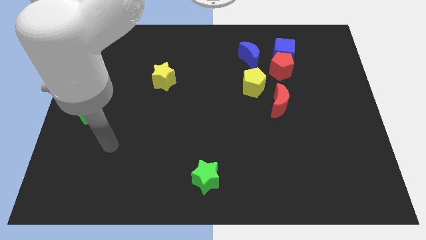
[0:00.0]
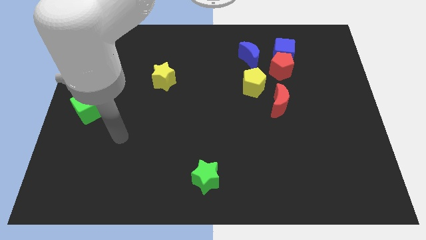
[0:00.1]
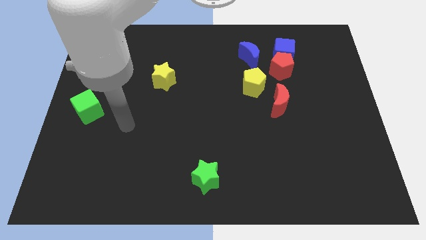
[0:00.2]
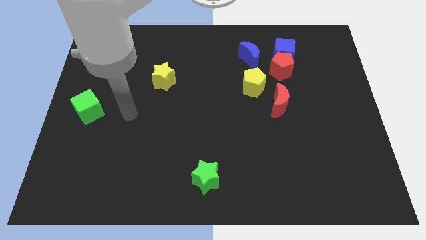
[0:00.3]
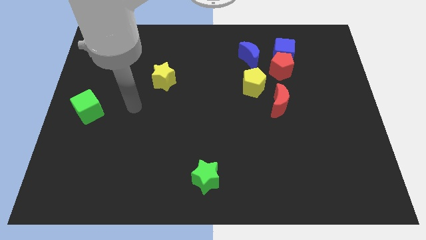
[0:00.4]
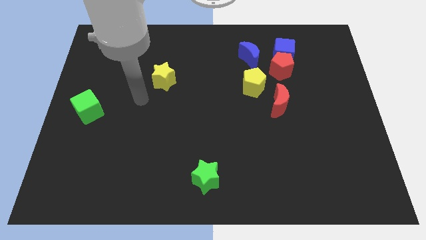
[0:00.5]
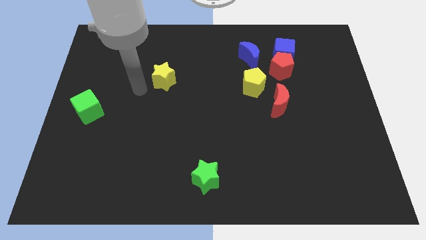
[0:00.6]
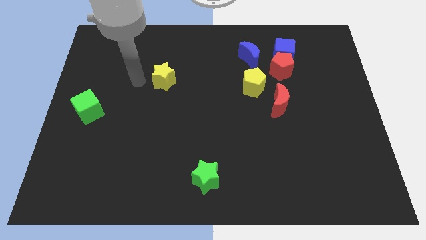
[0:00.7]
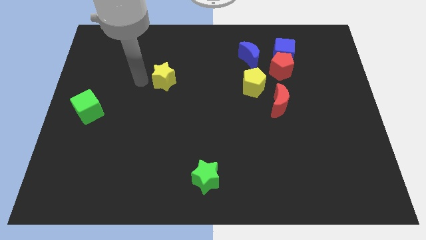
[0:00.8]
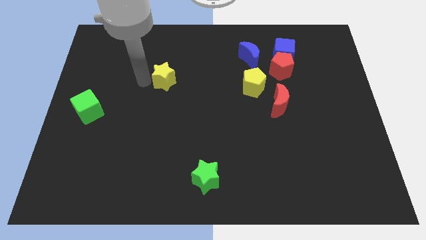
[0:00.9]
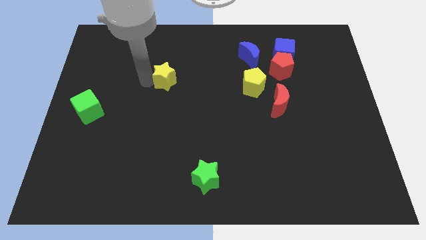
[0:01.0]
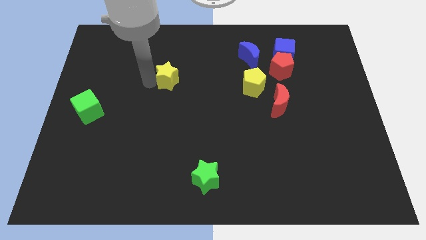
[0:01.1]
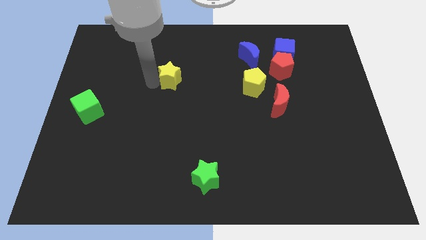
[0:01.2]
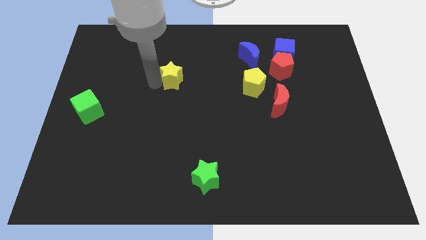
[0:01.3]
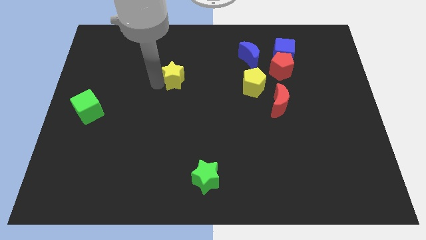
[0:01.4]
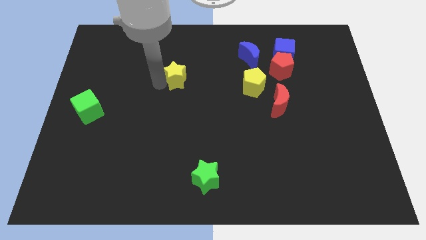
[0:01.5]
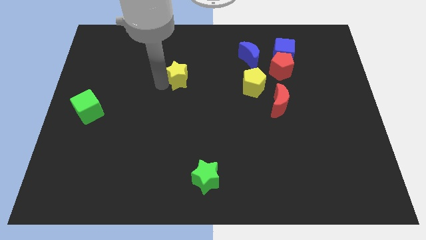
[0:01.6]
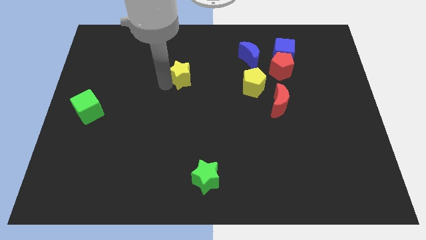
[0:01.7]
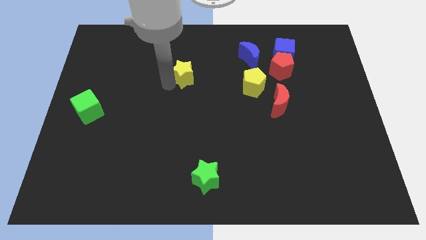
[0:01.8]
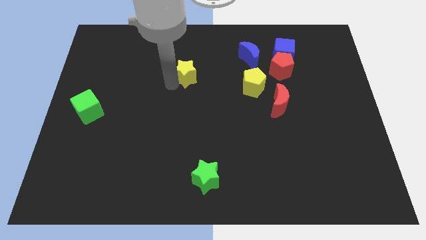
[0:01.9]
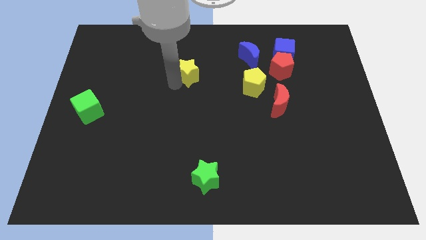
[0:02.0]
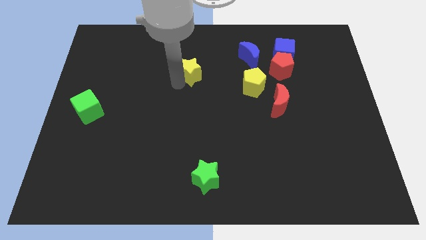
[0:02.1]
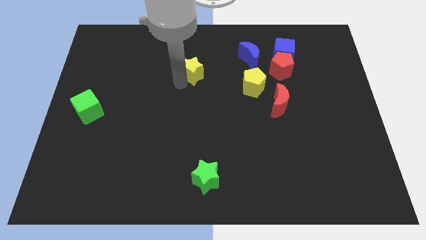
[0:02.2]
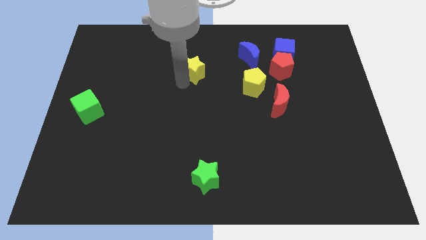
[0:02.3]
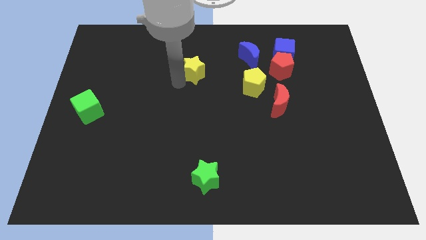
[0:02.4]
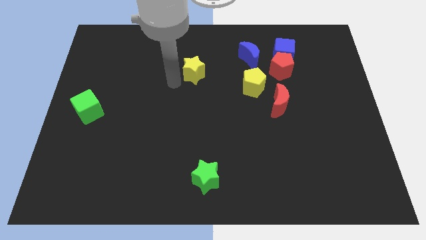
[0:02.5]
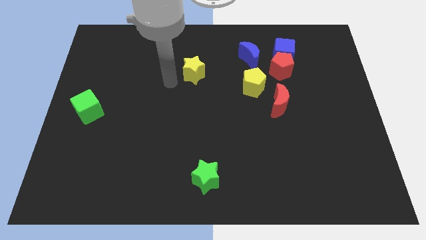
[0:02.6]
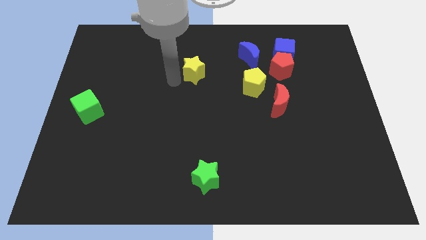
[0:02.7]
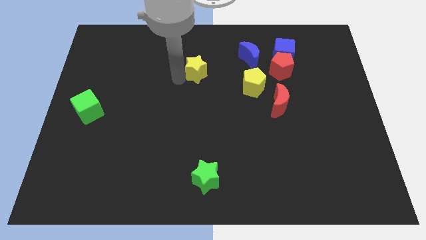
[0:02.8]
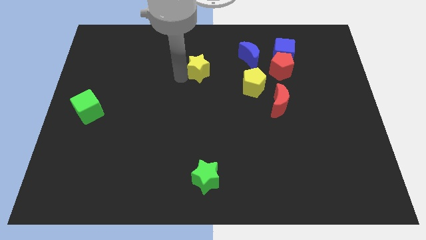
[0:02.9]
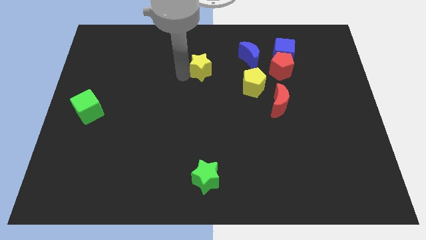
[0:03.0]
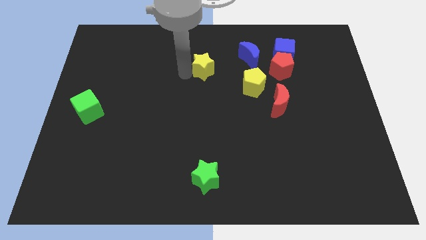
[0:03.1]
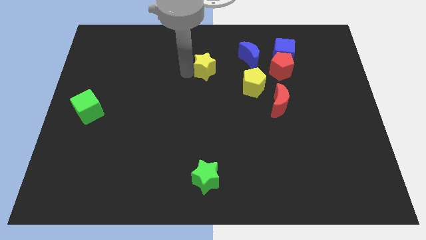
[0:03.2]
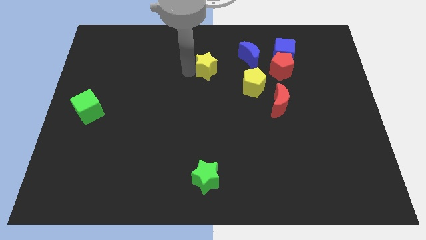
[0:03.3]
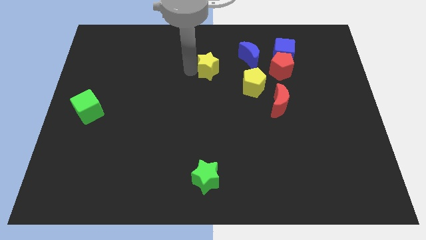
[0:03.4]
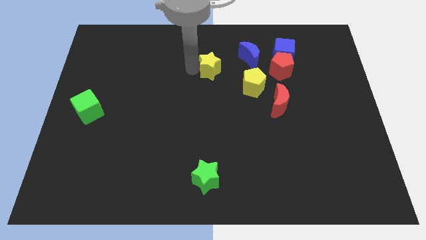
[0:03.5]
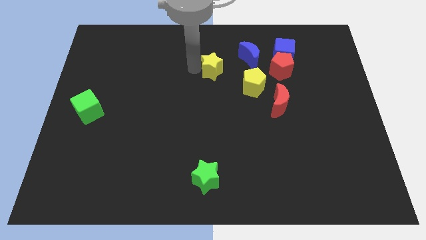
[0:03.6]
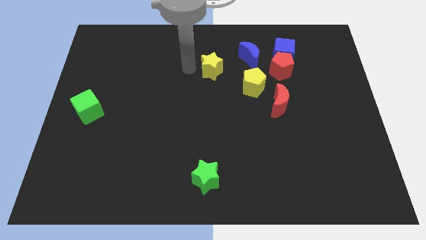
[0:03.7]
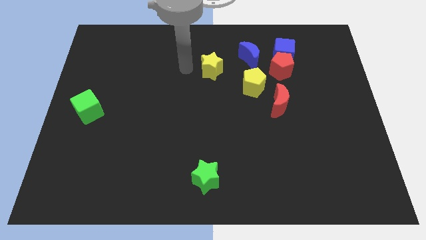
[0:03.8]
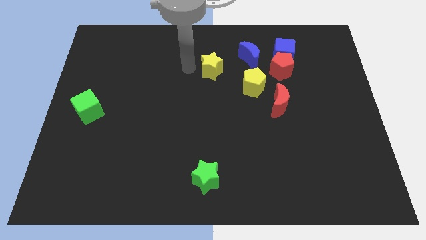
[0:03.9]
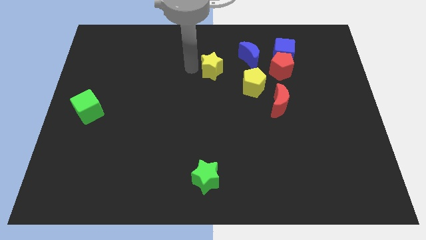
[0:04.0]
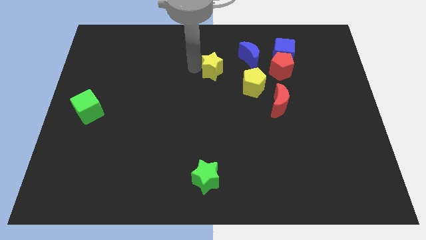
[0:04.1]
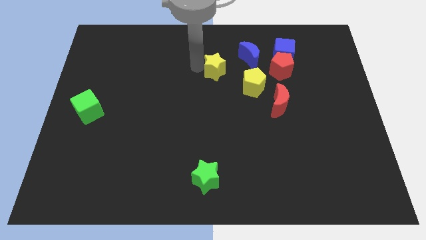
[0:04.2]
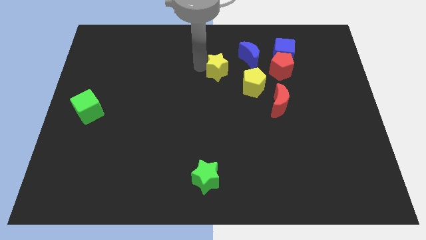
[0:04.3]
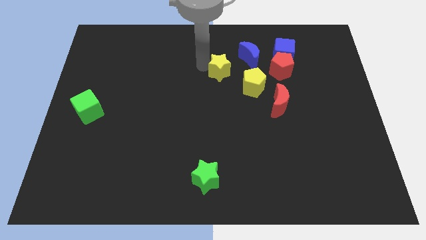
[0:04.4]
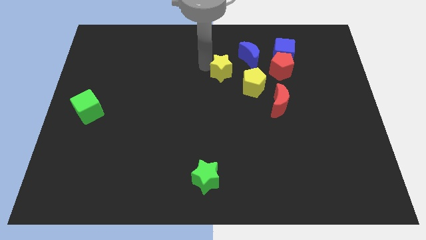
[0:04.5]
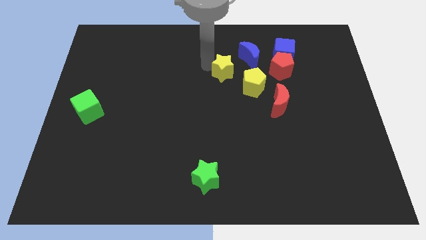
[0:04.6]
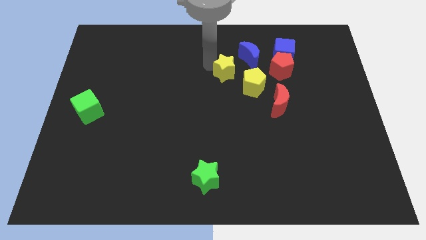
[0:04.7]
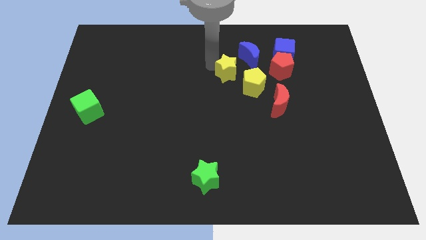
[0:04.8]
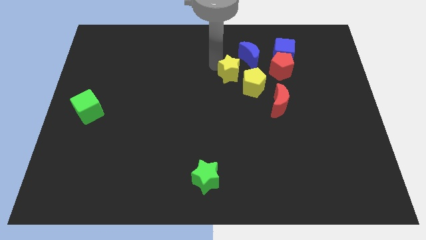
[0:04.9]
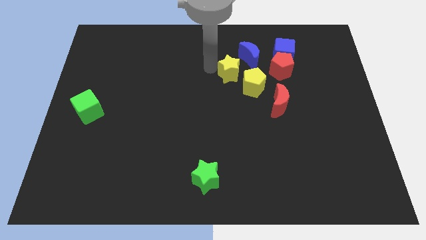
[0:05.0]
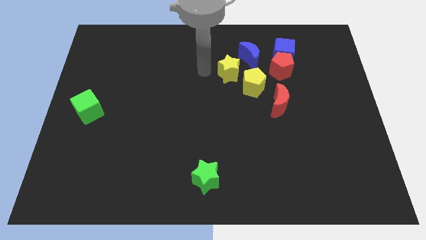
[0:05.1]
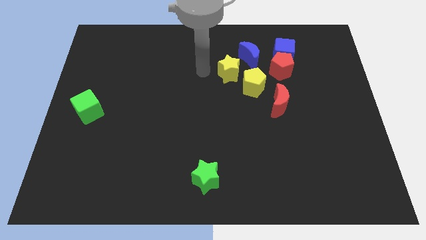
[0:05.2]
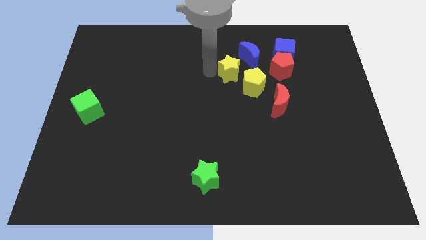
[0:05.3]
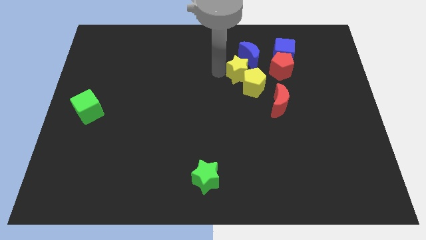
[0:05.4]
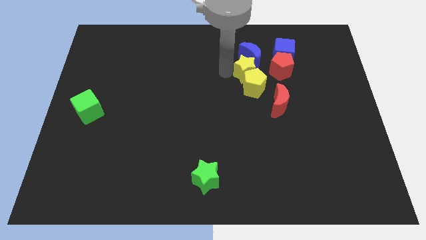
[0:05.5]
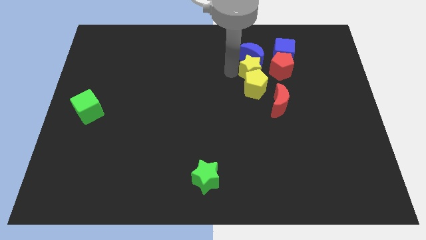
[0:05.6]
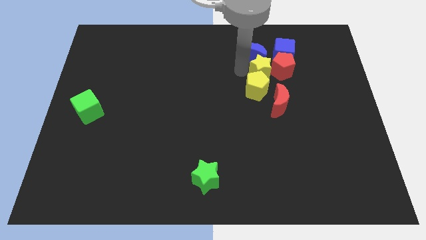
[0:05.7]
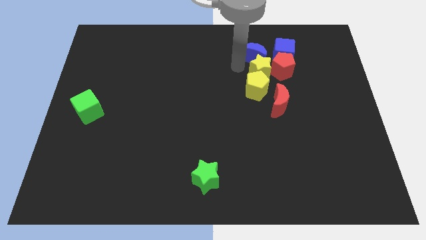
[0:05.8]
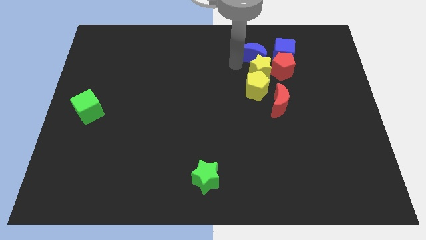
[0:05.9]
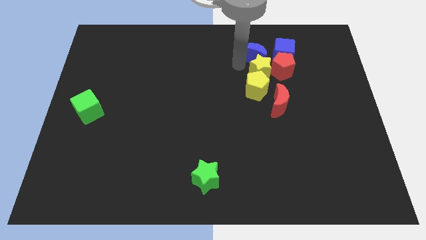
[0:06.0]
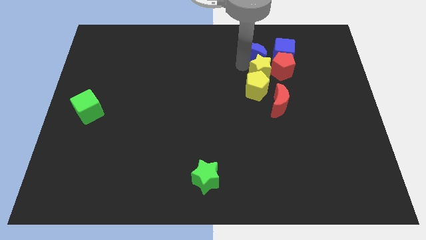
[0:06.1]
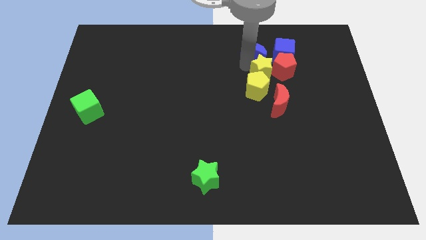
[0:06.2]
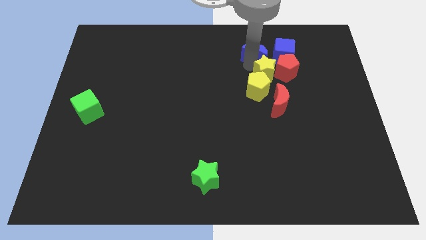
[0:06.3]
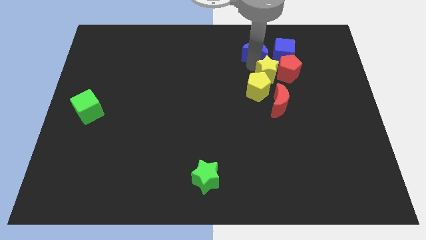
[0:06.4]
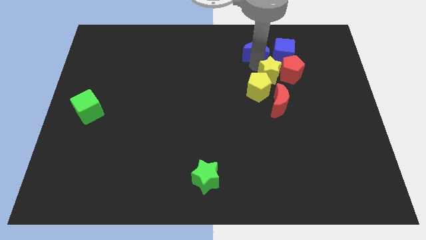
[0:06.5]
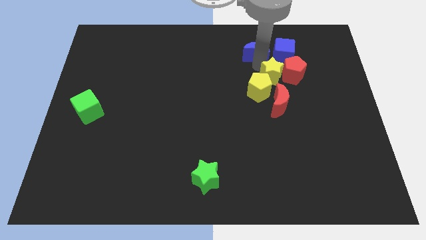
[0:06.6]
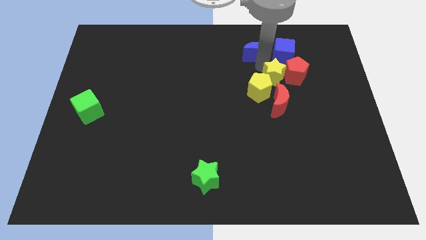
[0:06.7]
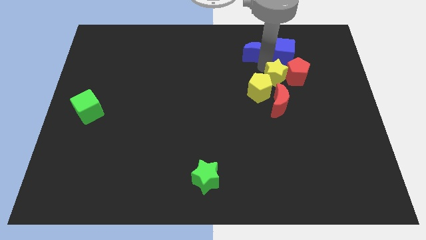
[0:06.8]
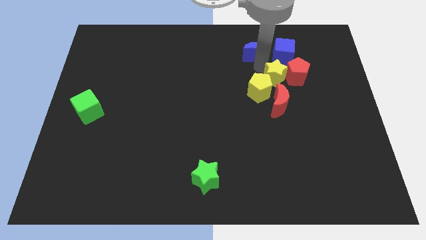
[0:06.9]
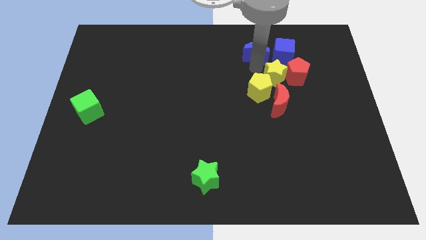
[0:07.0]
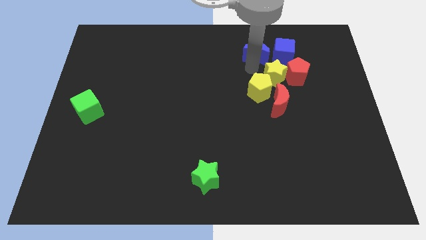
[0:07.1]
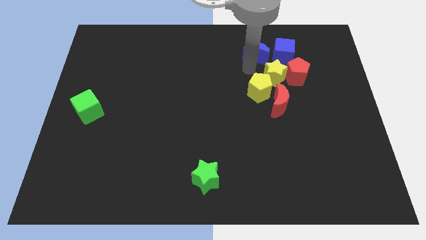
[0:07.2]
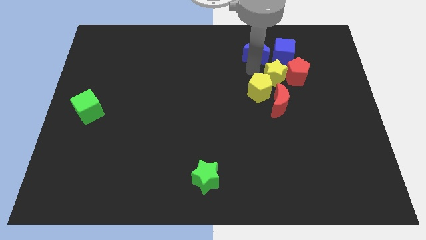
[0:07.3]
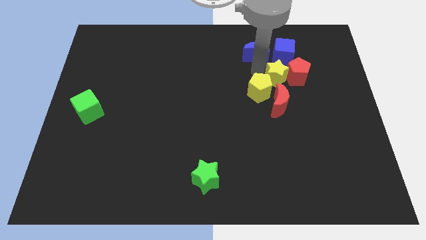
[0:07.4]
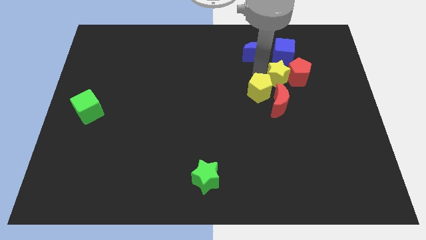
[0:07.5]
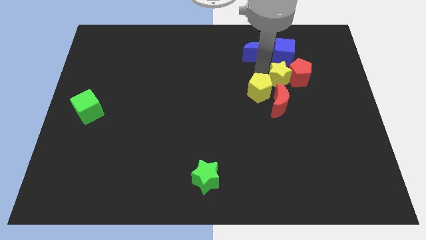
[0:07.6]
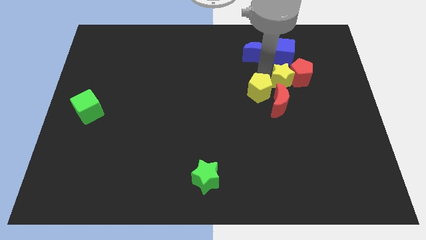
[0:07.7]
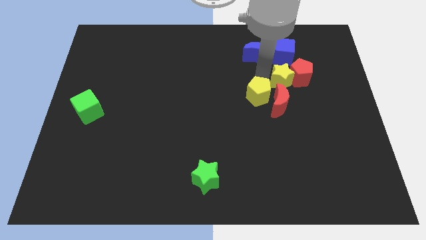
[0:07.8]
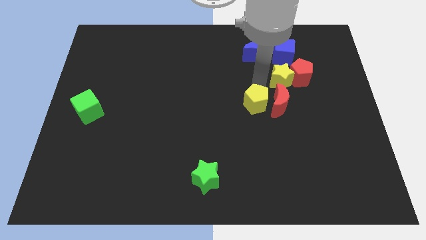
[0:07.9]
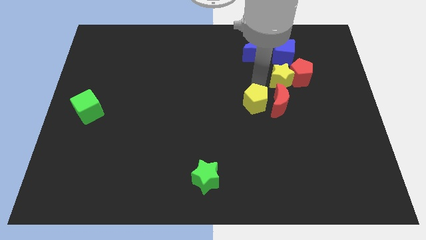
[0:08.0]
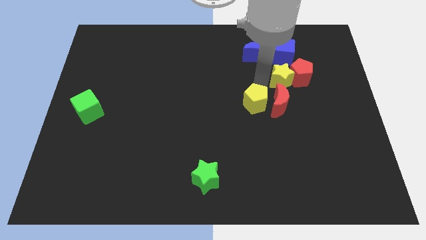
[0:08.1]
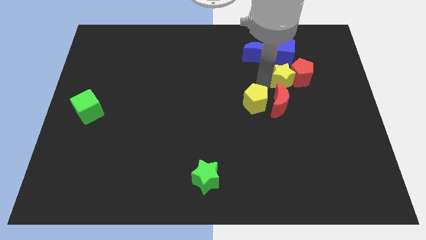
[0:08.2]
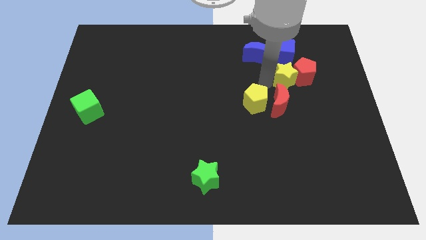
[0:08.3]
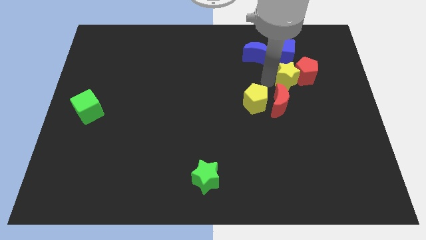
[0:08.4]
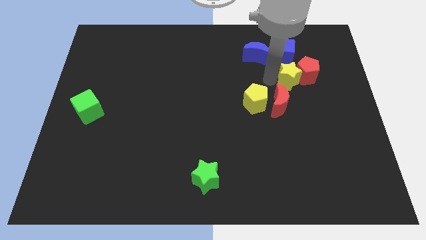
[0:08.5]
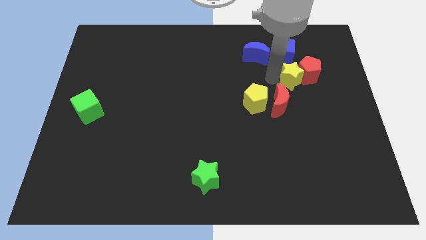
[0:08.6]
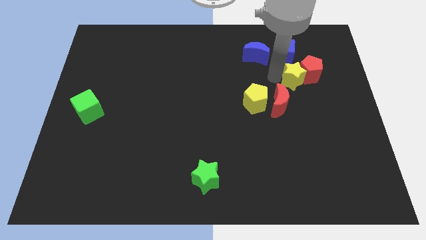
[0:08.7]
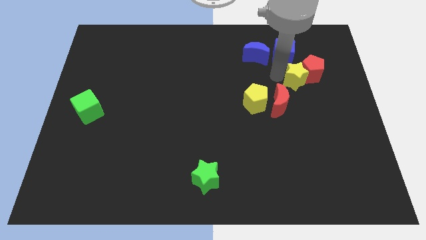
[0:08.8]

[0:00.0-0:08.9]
slide the yellow star to the bottom right side of the blue cube
